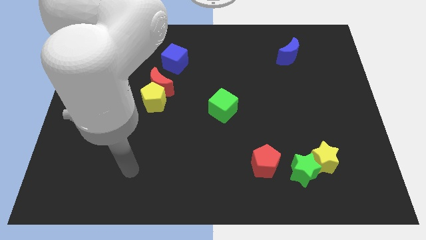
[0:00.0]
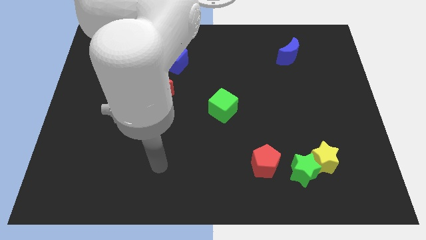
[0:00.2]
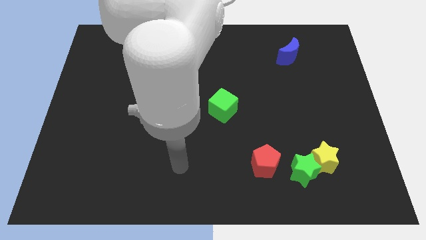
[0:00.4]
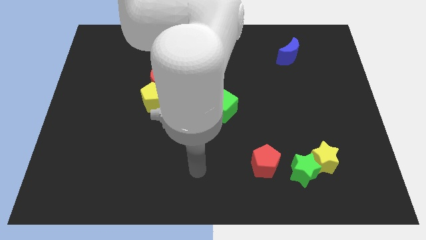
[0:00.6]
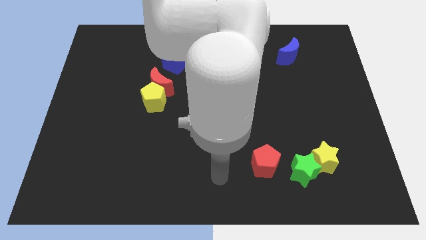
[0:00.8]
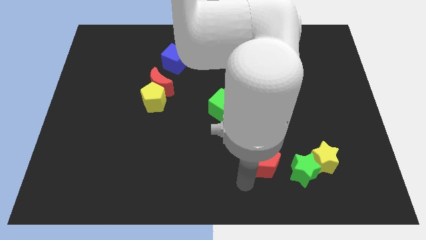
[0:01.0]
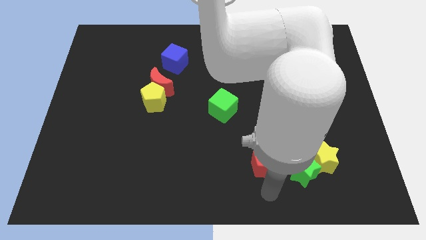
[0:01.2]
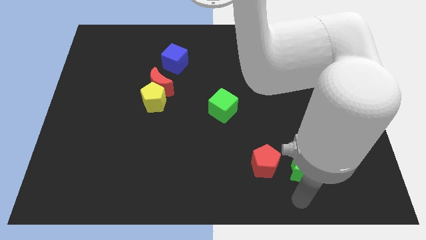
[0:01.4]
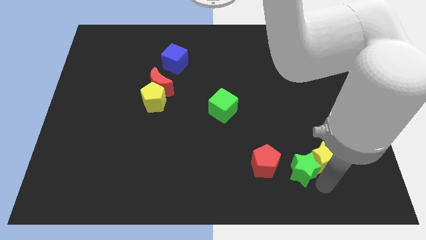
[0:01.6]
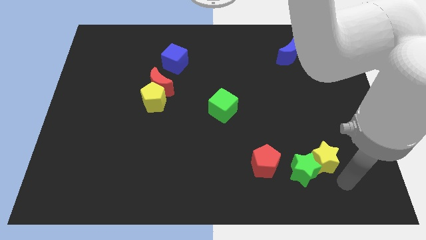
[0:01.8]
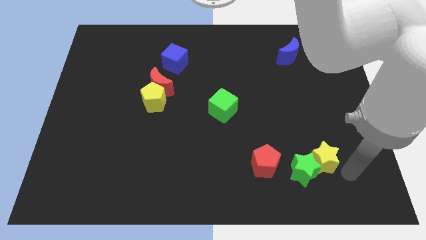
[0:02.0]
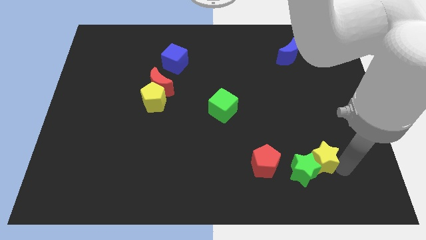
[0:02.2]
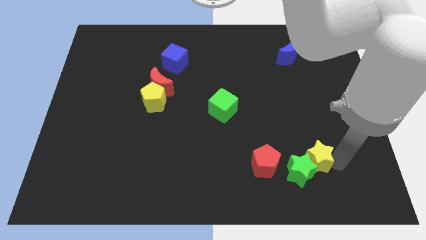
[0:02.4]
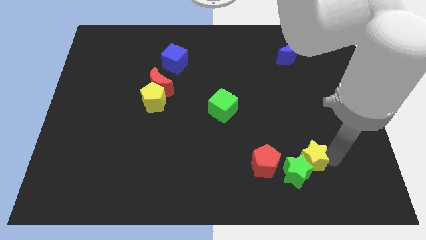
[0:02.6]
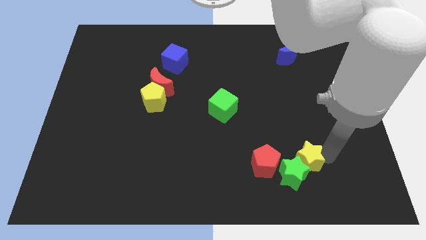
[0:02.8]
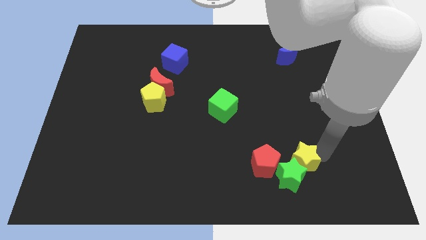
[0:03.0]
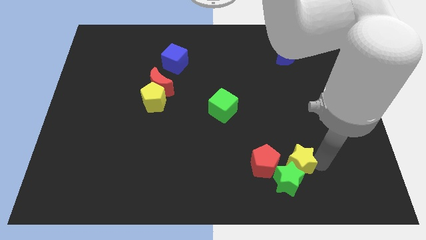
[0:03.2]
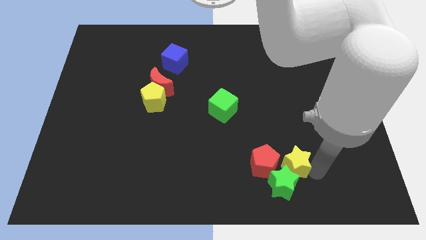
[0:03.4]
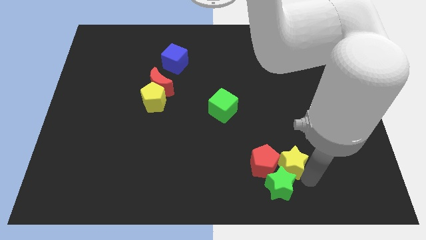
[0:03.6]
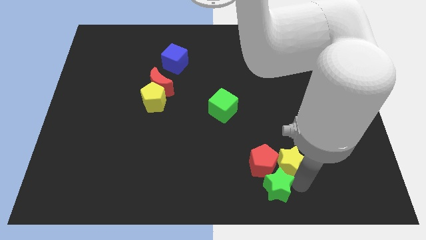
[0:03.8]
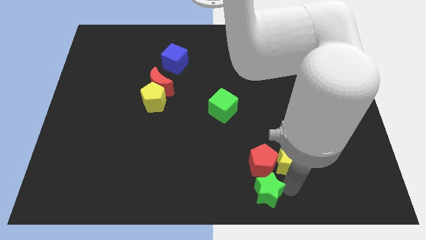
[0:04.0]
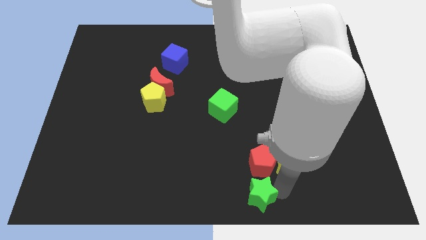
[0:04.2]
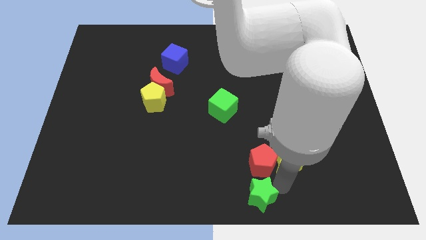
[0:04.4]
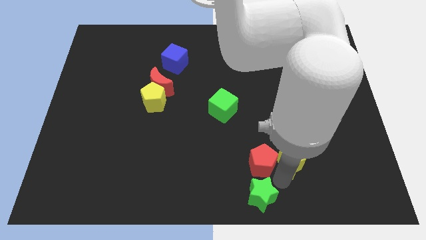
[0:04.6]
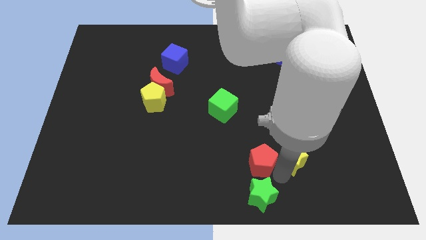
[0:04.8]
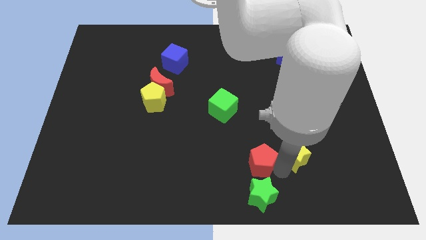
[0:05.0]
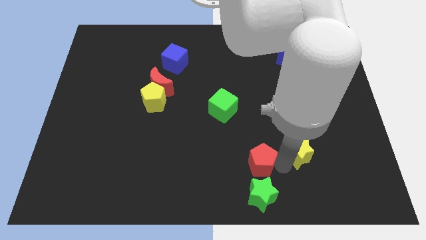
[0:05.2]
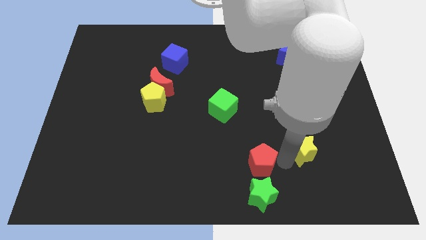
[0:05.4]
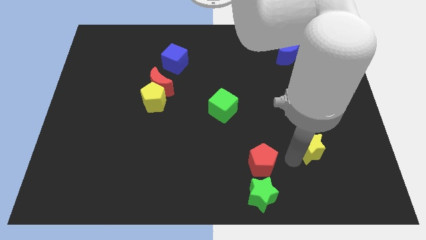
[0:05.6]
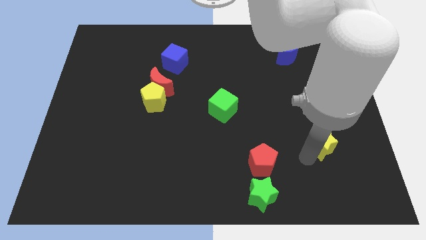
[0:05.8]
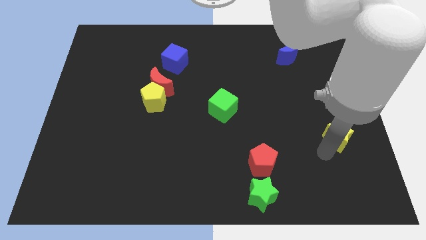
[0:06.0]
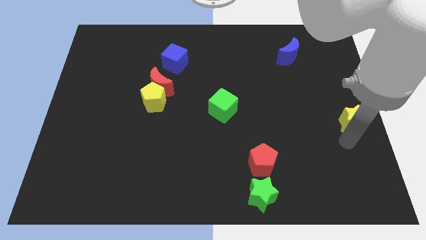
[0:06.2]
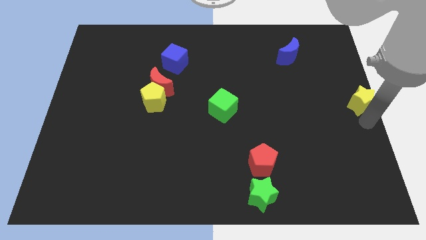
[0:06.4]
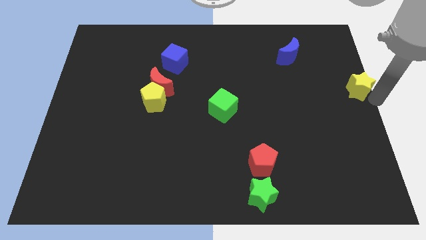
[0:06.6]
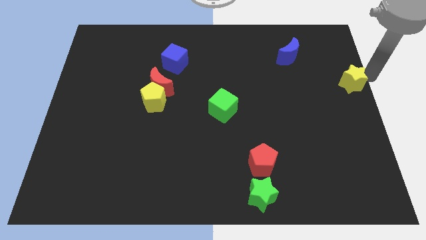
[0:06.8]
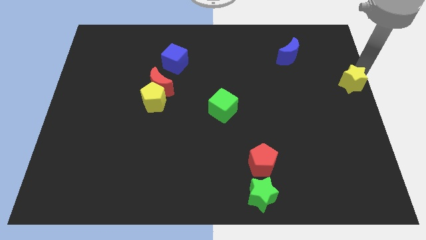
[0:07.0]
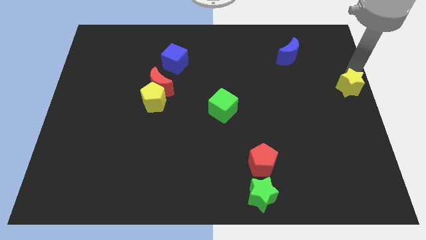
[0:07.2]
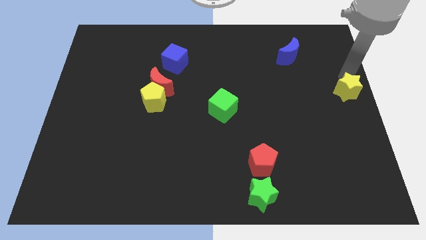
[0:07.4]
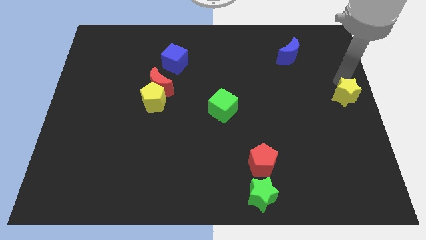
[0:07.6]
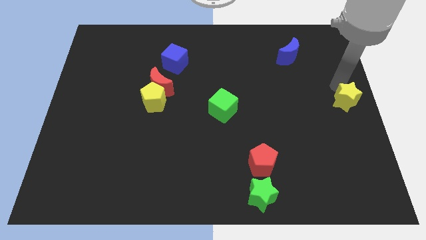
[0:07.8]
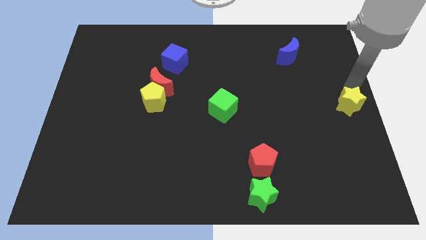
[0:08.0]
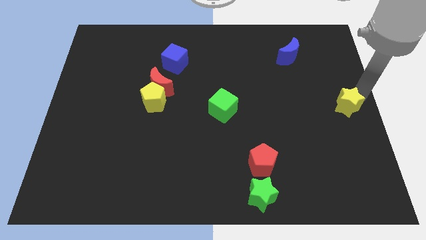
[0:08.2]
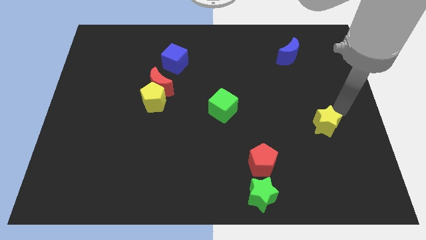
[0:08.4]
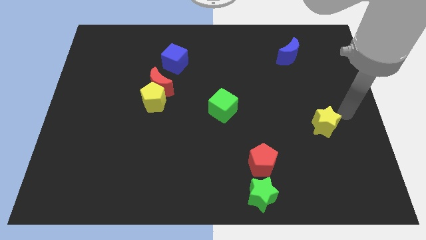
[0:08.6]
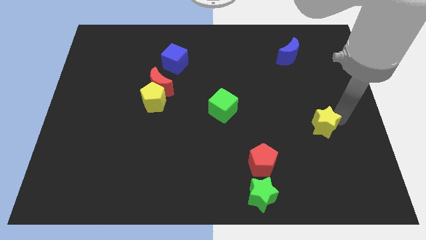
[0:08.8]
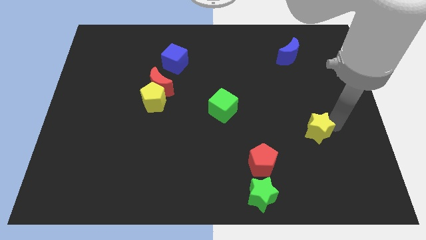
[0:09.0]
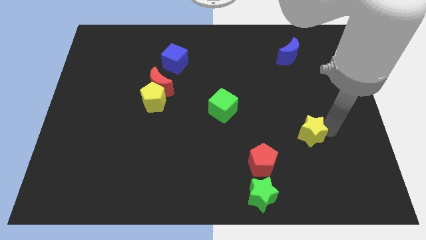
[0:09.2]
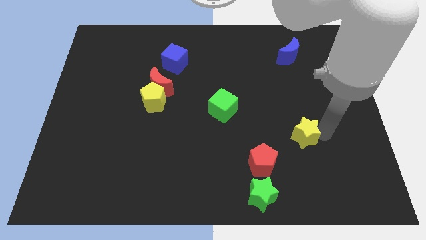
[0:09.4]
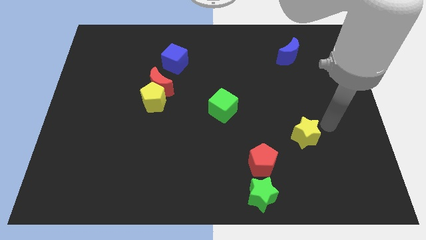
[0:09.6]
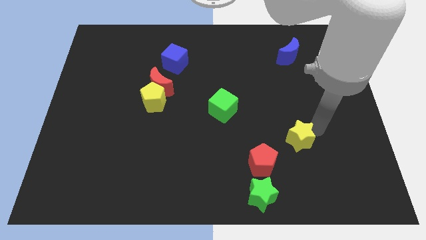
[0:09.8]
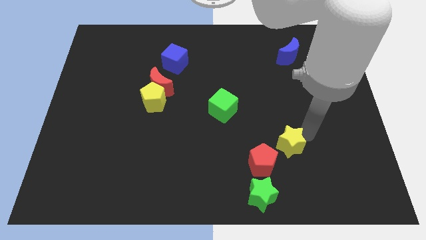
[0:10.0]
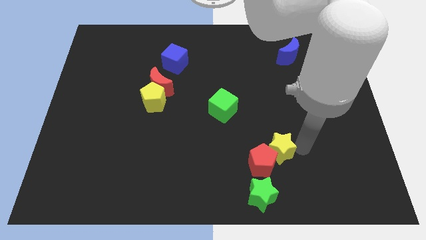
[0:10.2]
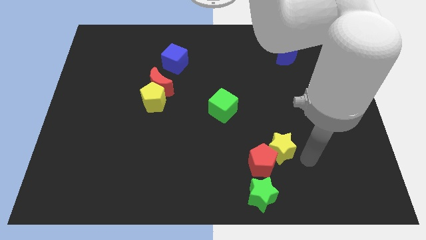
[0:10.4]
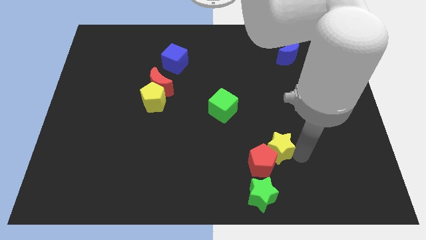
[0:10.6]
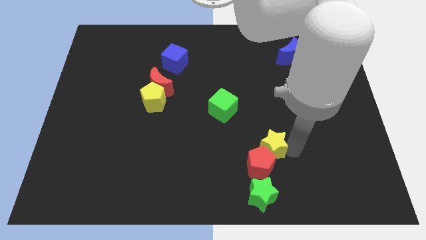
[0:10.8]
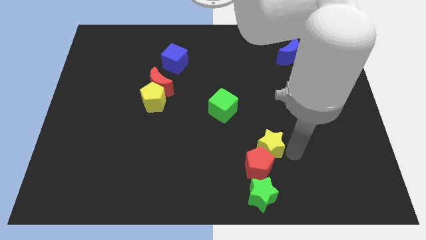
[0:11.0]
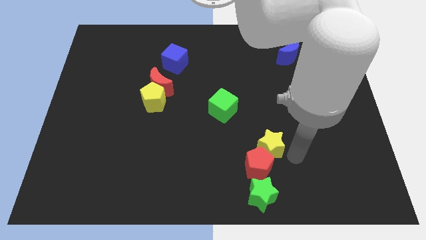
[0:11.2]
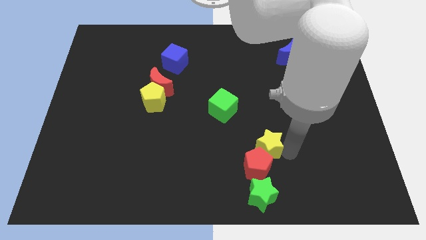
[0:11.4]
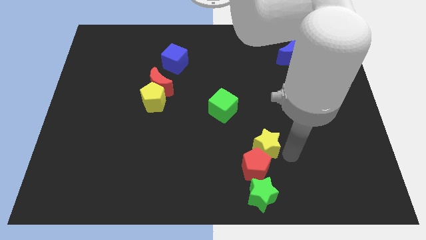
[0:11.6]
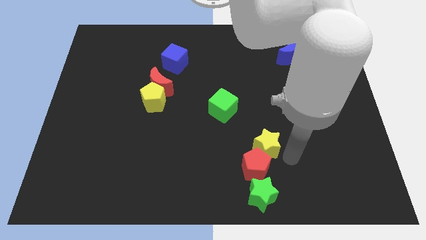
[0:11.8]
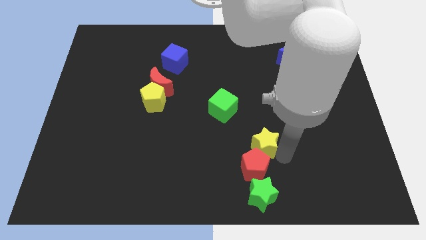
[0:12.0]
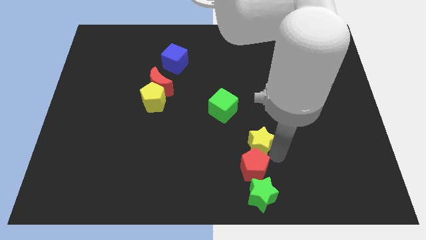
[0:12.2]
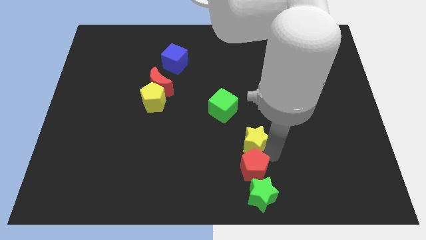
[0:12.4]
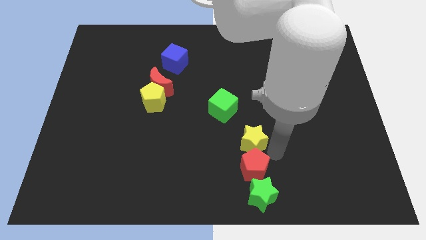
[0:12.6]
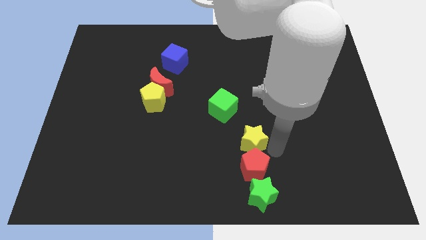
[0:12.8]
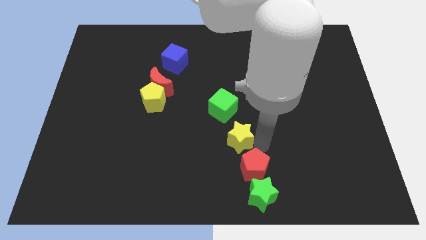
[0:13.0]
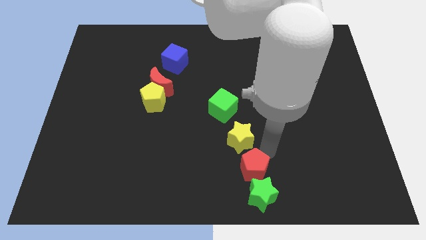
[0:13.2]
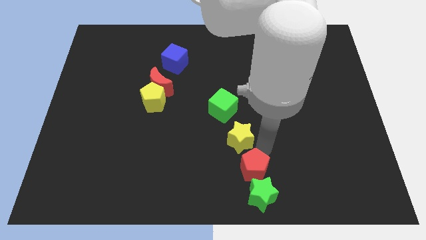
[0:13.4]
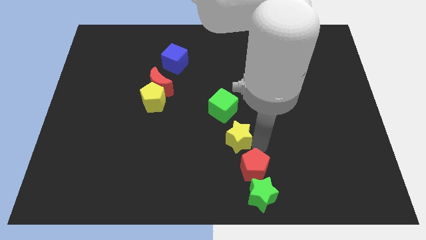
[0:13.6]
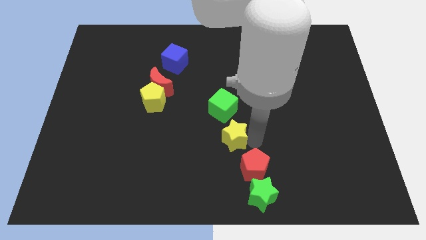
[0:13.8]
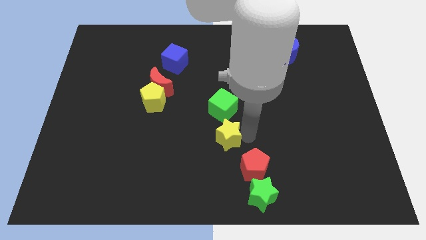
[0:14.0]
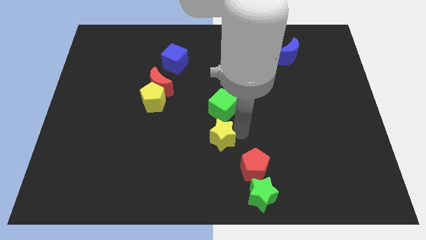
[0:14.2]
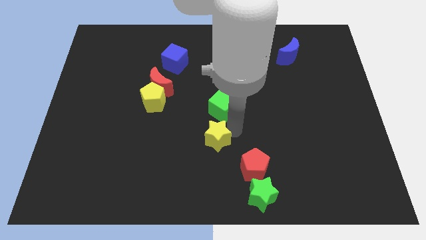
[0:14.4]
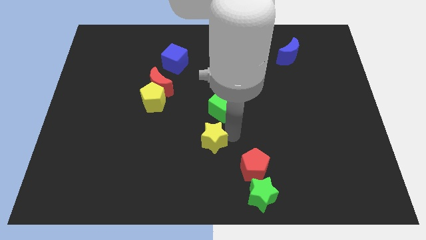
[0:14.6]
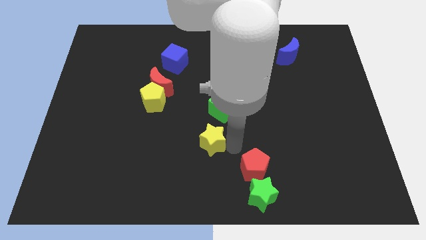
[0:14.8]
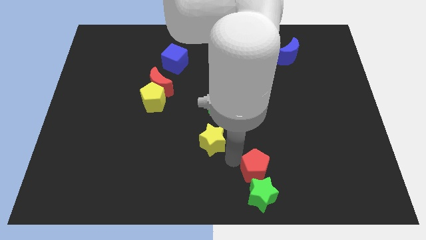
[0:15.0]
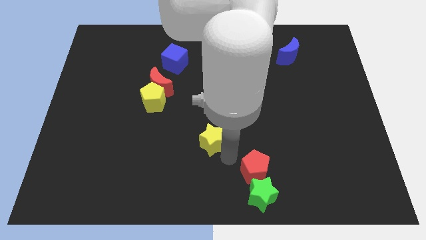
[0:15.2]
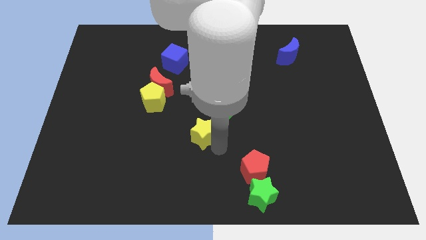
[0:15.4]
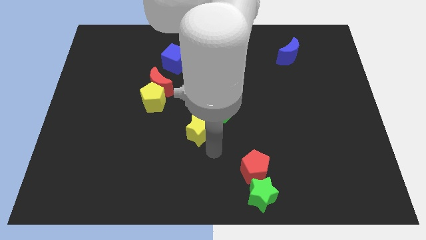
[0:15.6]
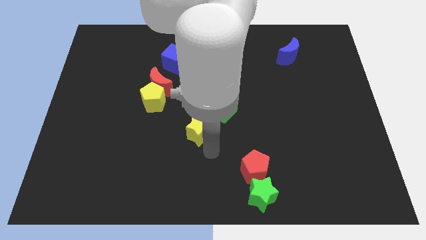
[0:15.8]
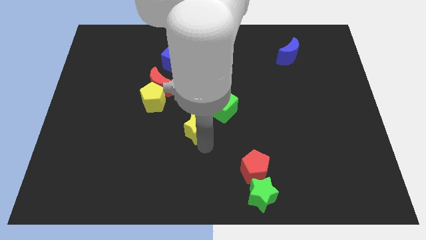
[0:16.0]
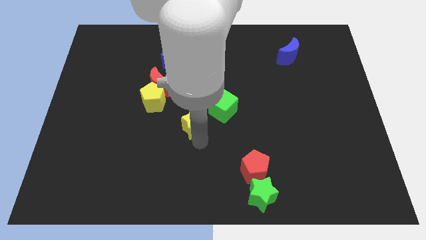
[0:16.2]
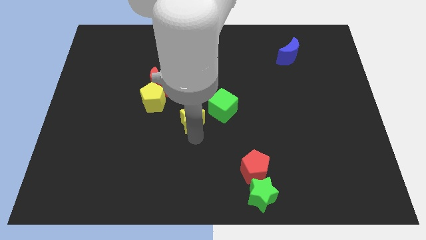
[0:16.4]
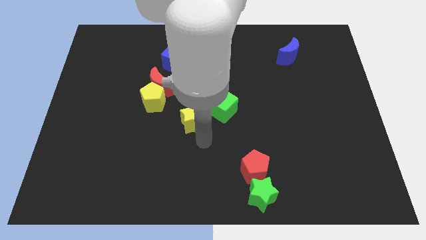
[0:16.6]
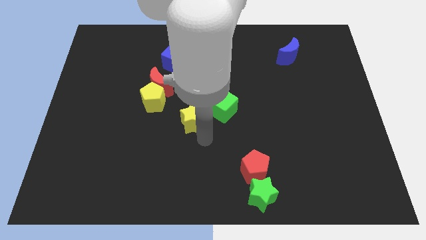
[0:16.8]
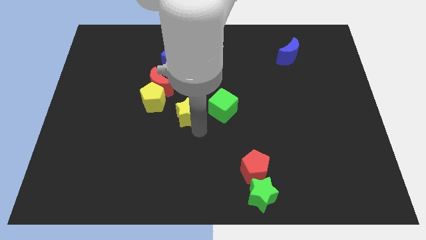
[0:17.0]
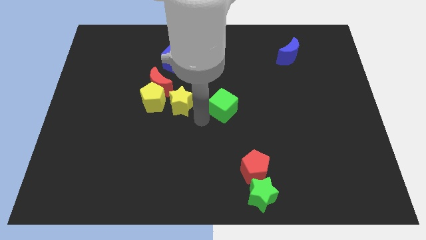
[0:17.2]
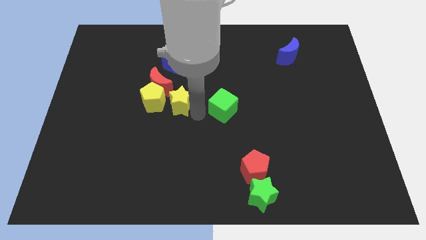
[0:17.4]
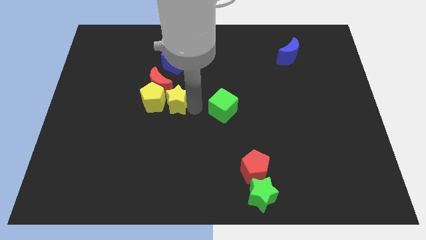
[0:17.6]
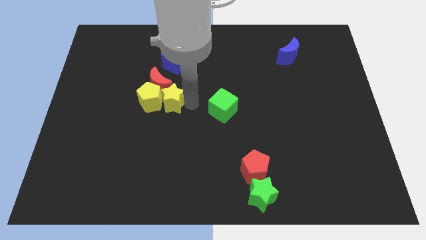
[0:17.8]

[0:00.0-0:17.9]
push the yellow star to the red moon
